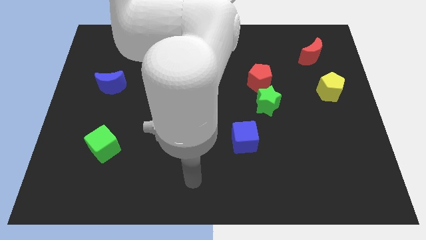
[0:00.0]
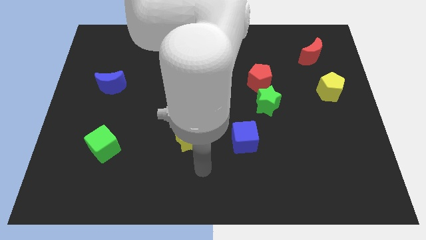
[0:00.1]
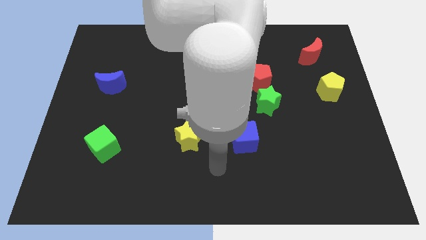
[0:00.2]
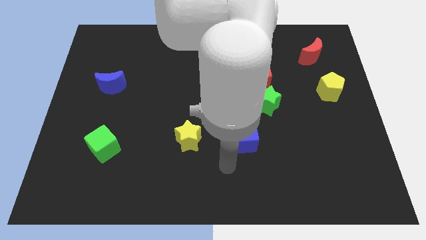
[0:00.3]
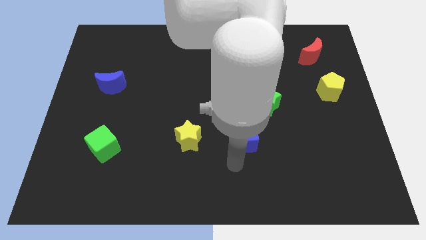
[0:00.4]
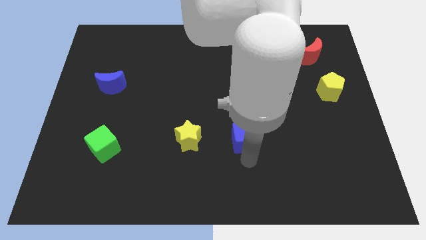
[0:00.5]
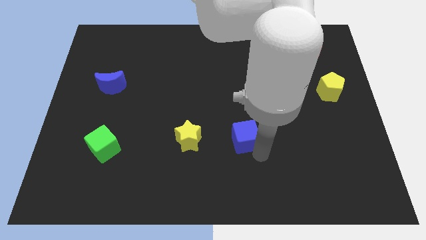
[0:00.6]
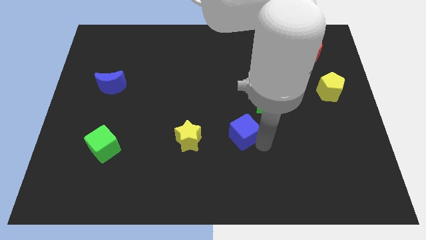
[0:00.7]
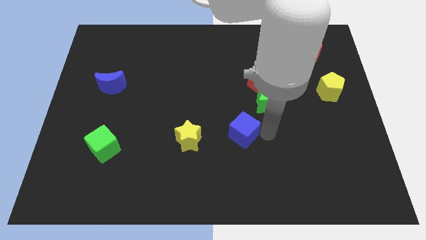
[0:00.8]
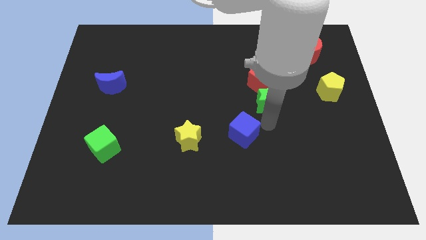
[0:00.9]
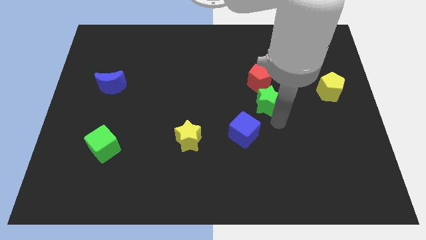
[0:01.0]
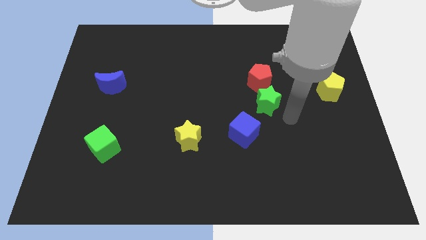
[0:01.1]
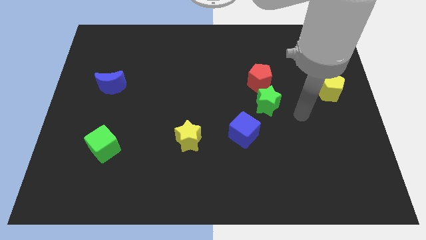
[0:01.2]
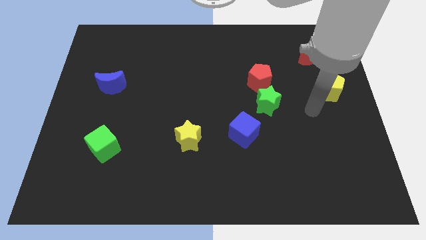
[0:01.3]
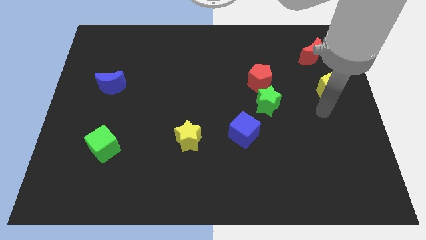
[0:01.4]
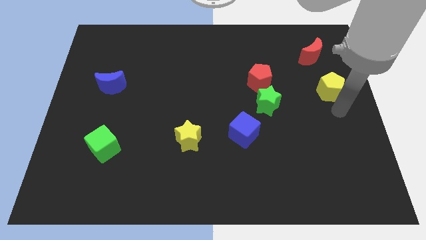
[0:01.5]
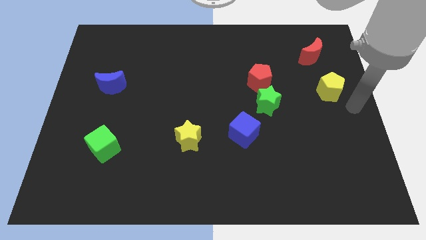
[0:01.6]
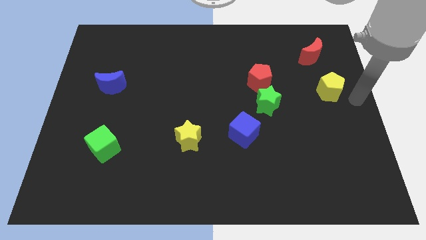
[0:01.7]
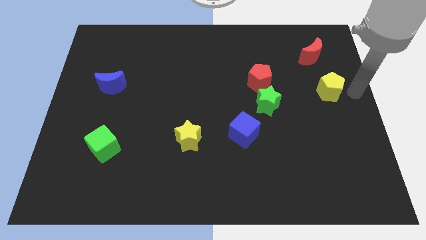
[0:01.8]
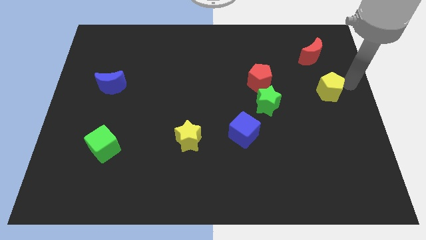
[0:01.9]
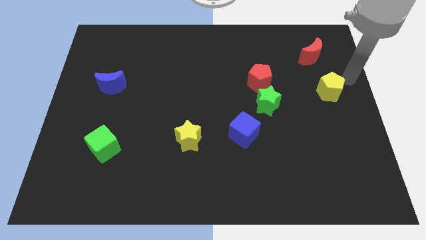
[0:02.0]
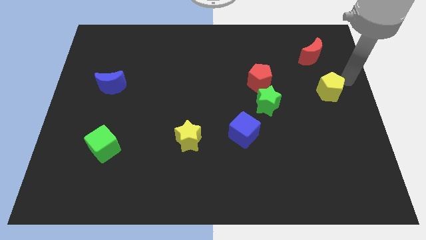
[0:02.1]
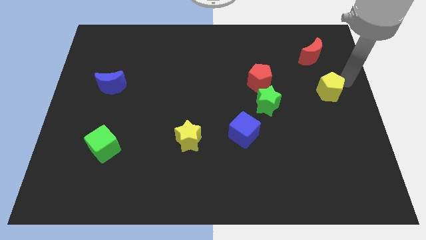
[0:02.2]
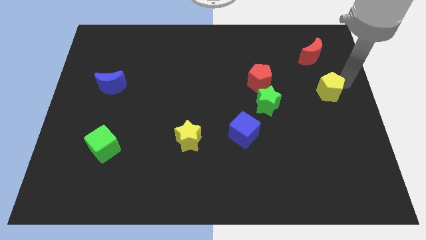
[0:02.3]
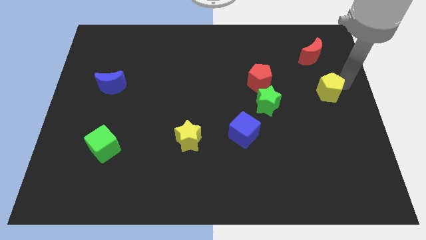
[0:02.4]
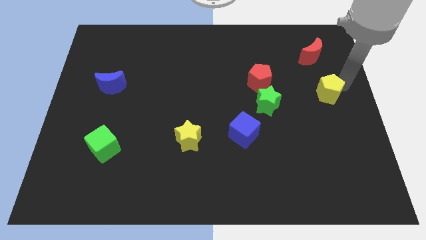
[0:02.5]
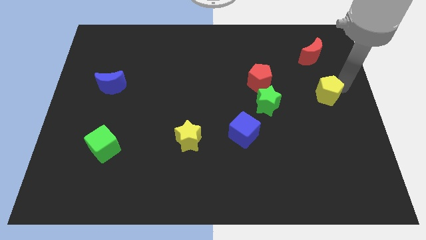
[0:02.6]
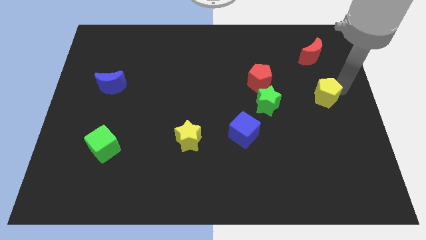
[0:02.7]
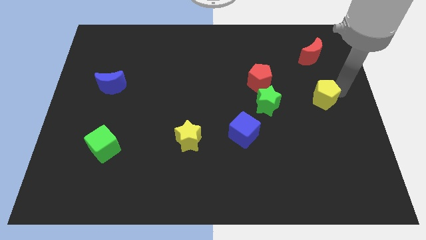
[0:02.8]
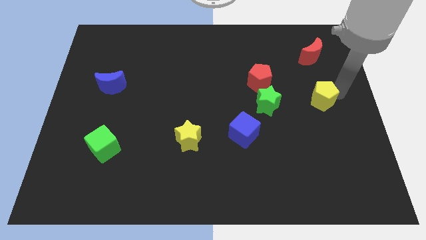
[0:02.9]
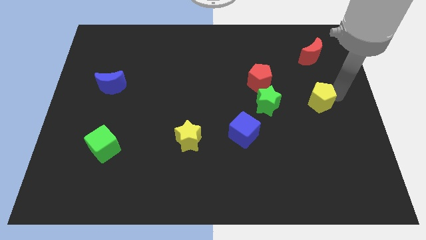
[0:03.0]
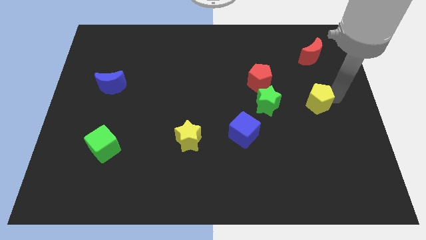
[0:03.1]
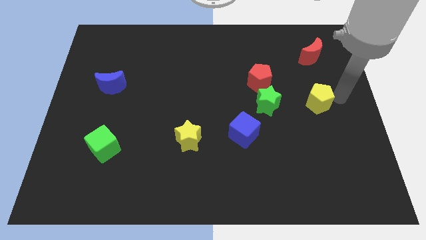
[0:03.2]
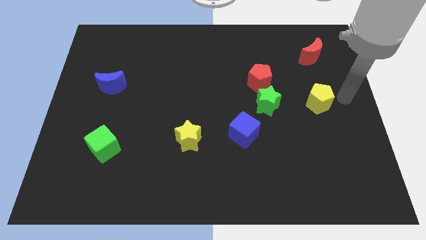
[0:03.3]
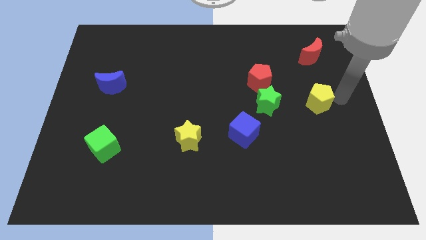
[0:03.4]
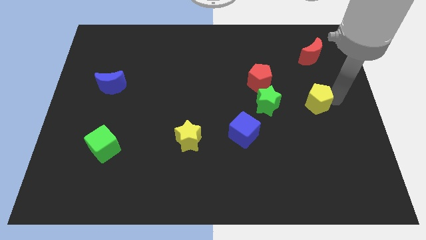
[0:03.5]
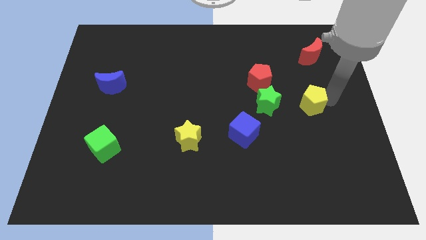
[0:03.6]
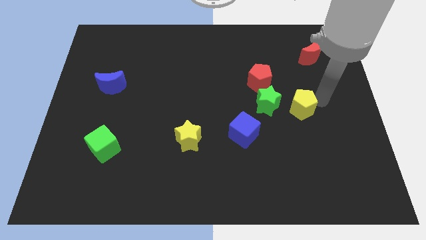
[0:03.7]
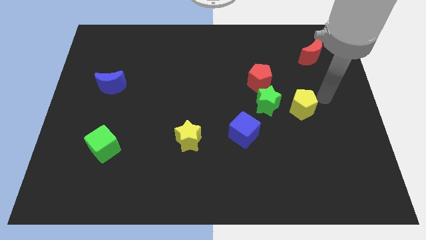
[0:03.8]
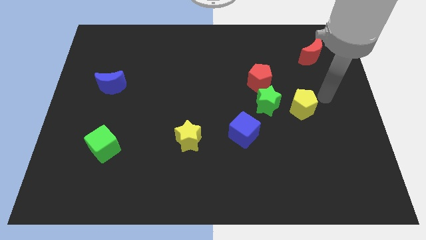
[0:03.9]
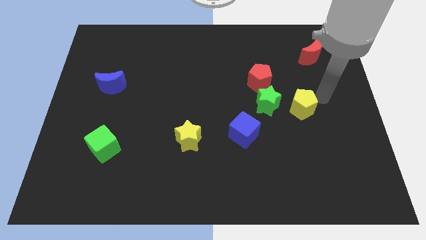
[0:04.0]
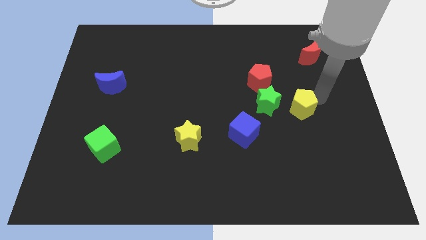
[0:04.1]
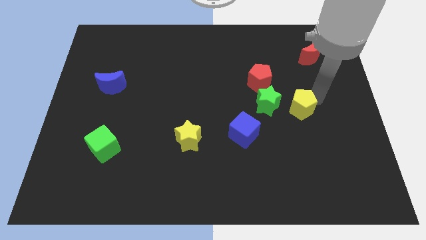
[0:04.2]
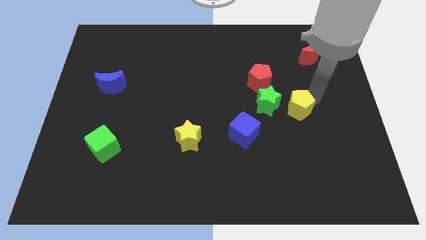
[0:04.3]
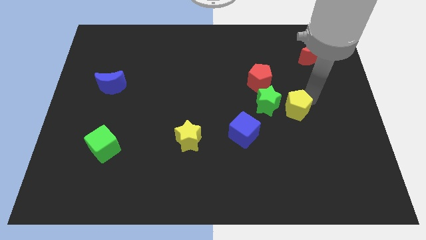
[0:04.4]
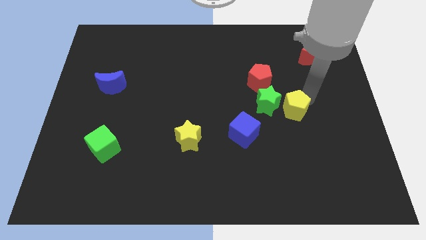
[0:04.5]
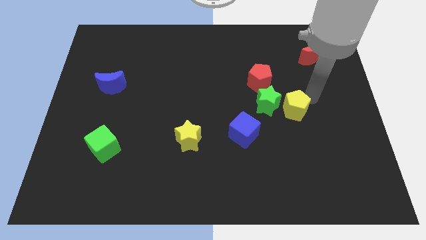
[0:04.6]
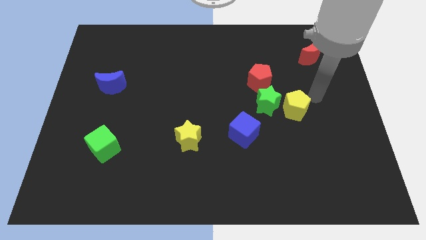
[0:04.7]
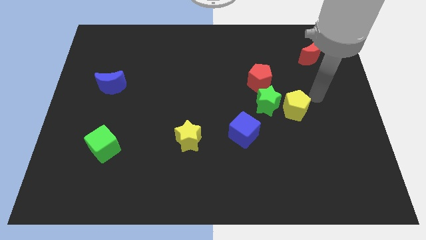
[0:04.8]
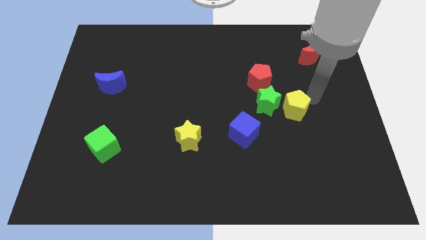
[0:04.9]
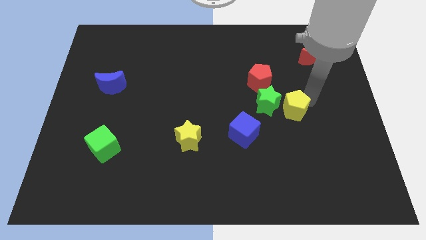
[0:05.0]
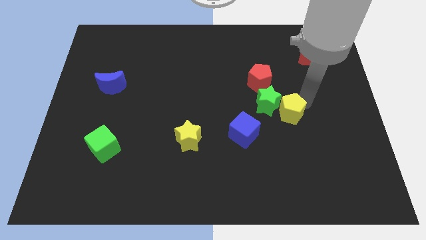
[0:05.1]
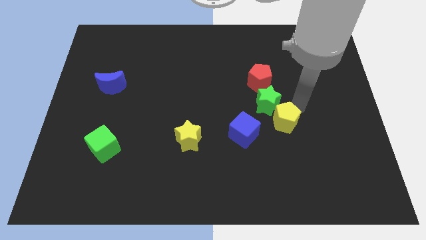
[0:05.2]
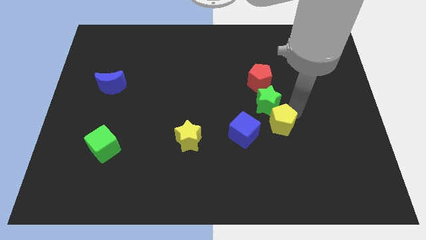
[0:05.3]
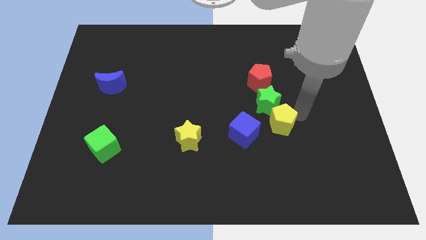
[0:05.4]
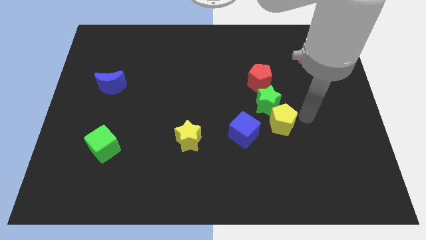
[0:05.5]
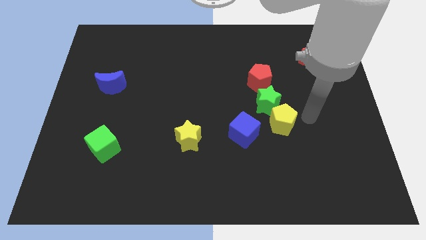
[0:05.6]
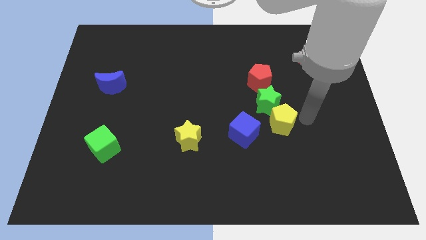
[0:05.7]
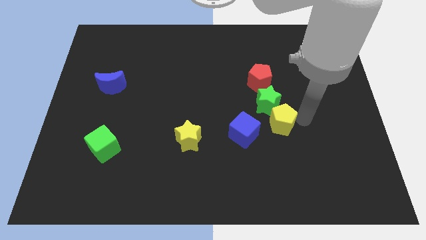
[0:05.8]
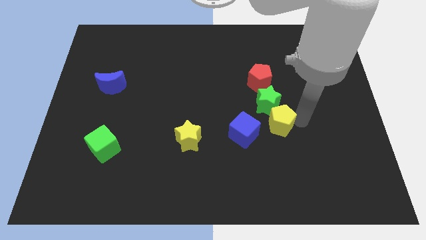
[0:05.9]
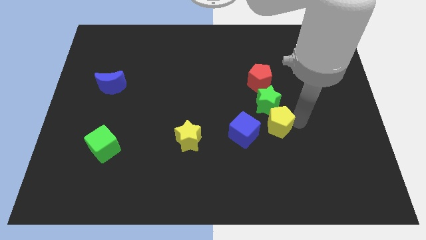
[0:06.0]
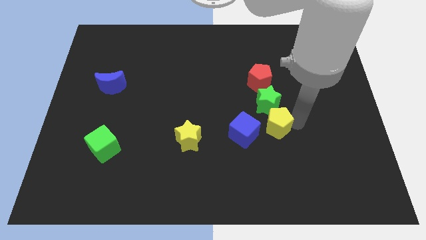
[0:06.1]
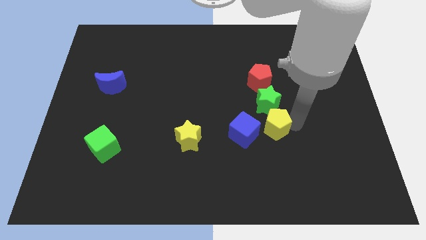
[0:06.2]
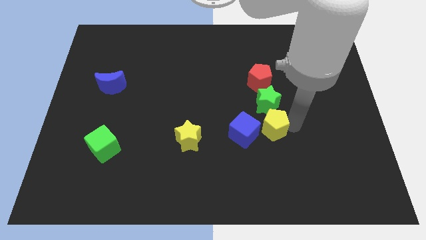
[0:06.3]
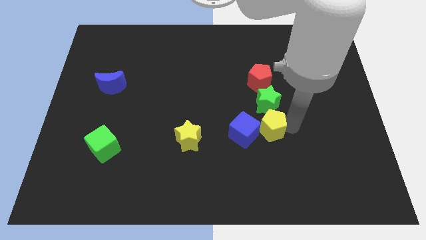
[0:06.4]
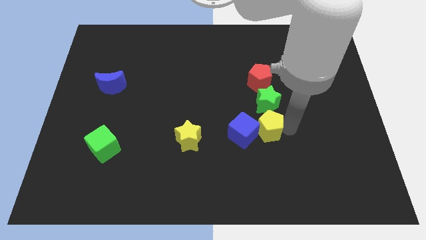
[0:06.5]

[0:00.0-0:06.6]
move the yellow pentagon next to the blue cube
